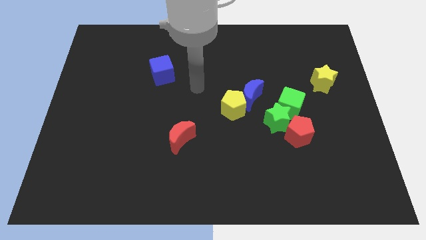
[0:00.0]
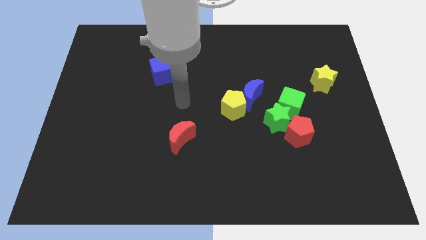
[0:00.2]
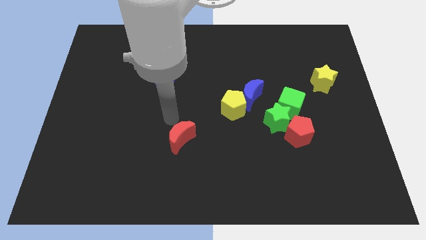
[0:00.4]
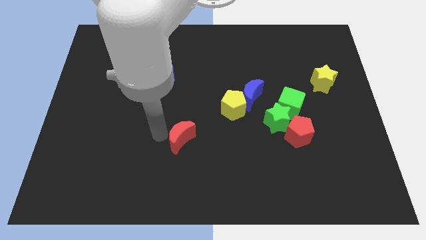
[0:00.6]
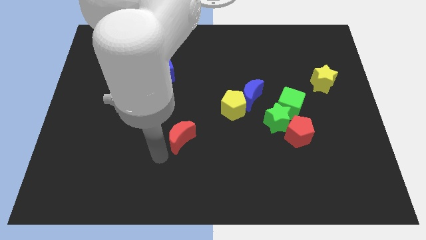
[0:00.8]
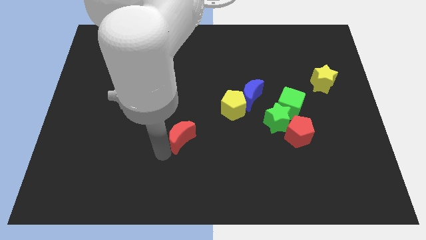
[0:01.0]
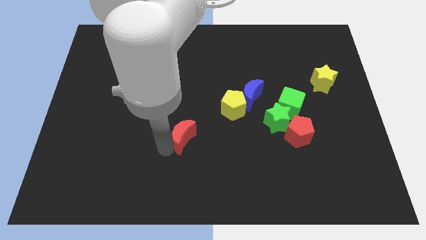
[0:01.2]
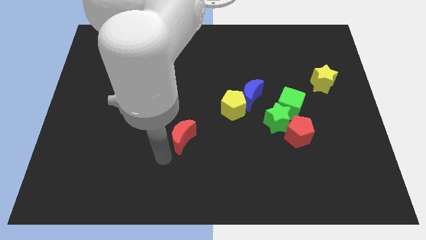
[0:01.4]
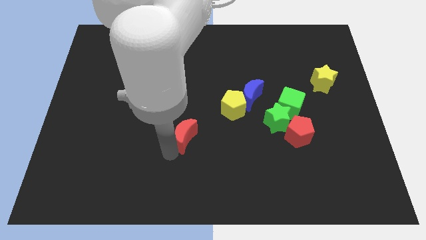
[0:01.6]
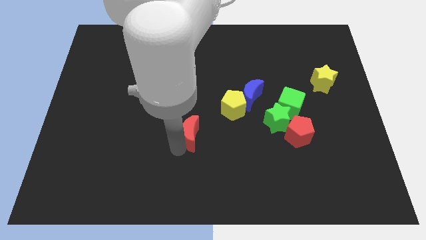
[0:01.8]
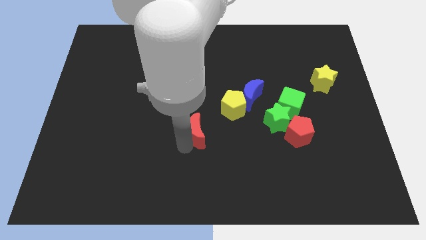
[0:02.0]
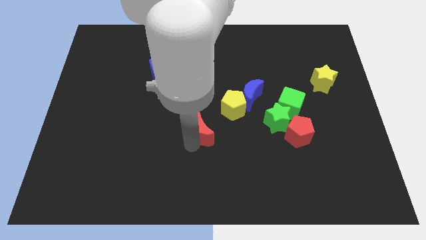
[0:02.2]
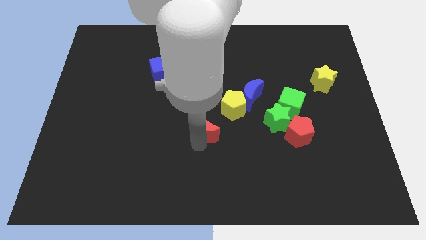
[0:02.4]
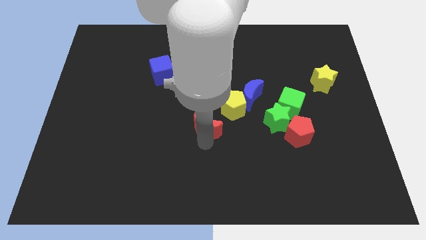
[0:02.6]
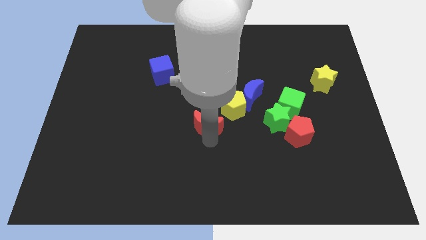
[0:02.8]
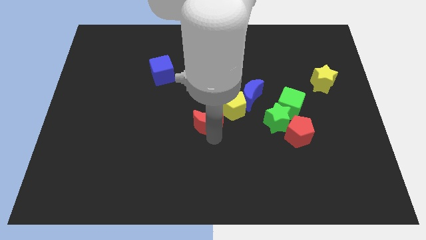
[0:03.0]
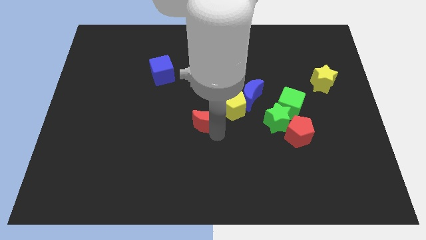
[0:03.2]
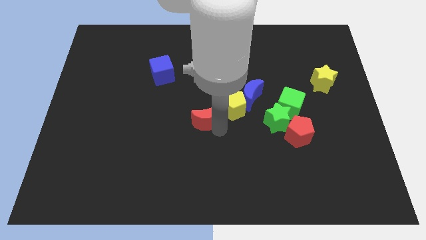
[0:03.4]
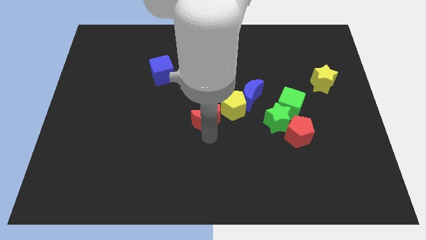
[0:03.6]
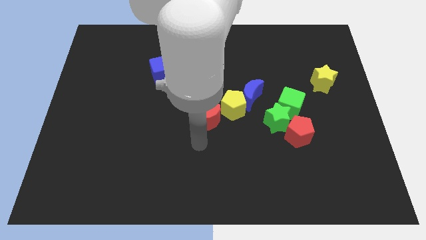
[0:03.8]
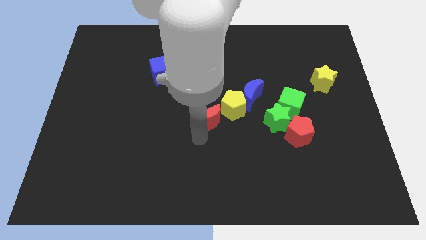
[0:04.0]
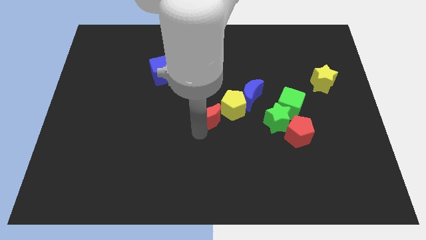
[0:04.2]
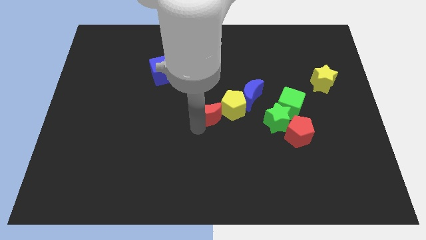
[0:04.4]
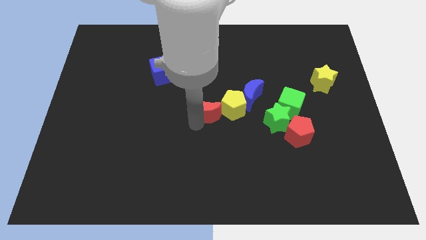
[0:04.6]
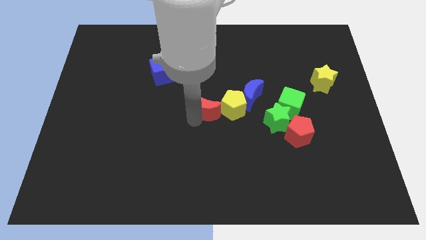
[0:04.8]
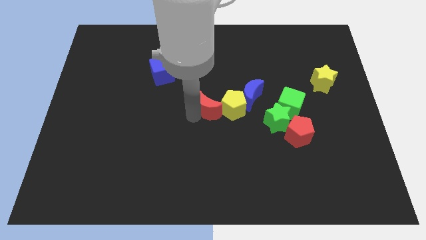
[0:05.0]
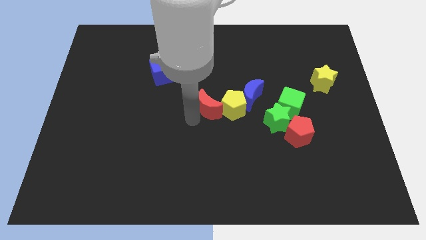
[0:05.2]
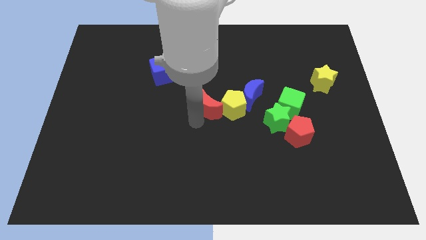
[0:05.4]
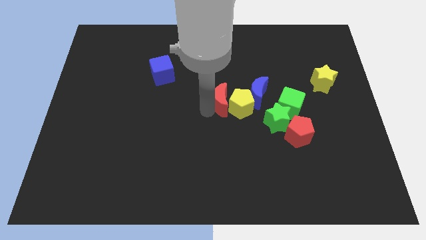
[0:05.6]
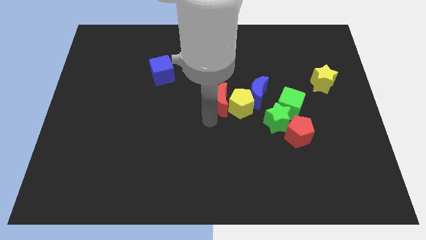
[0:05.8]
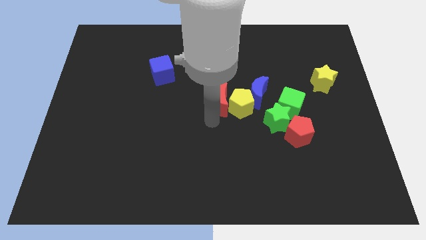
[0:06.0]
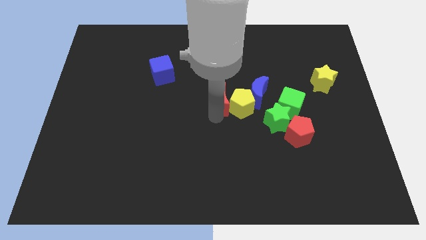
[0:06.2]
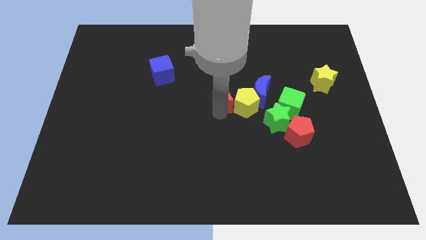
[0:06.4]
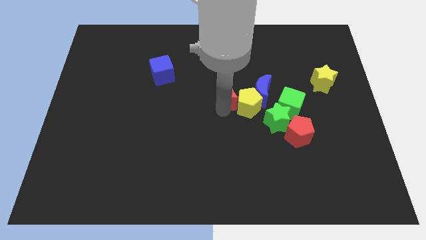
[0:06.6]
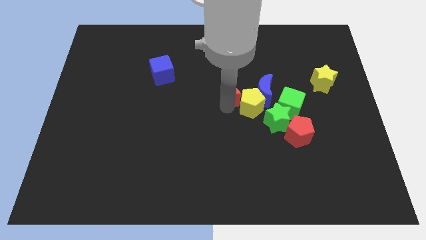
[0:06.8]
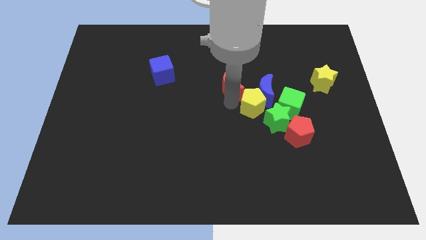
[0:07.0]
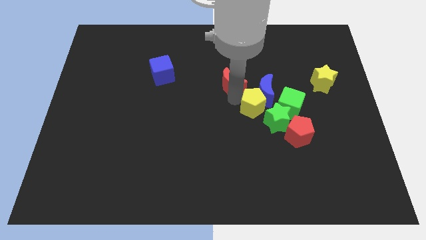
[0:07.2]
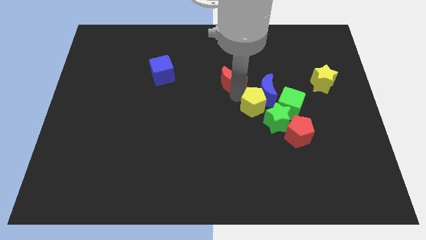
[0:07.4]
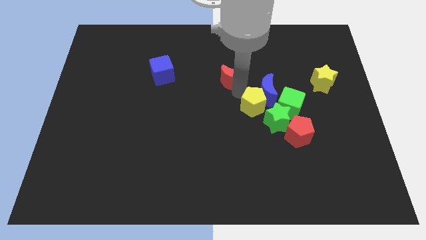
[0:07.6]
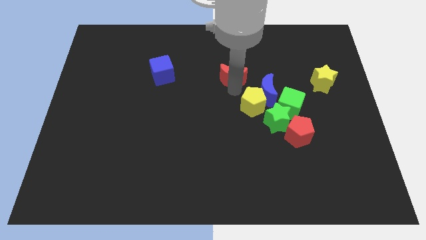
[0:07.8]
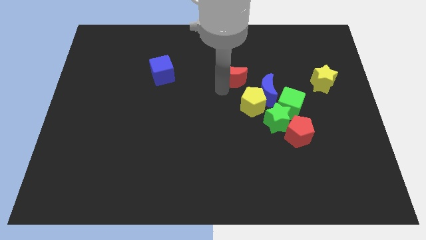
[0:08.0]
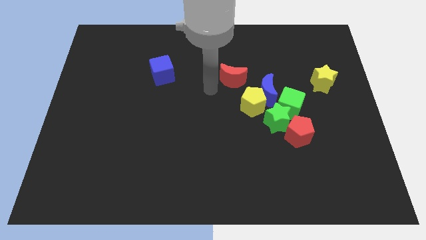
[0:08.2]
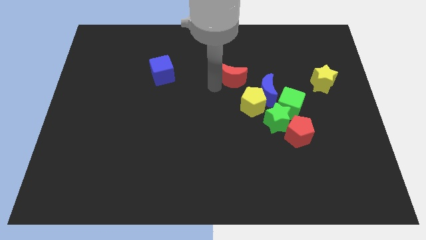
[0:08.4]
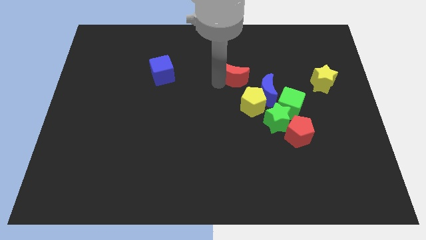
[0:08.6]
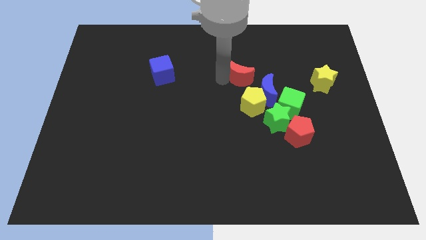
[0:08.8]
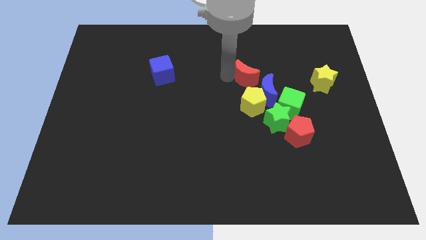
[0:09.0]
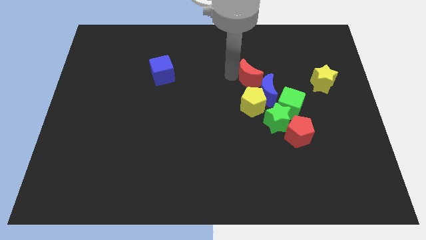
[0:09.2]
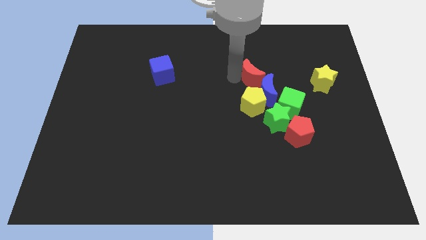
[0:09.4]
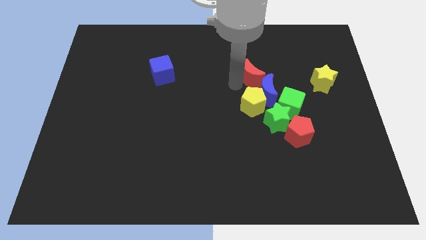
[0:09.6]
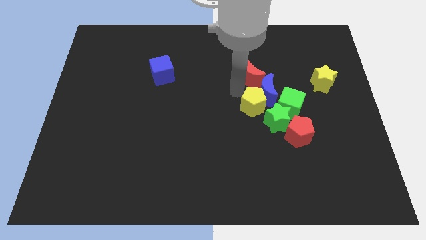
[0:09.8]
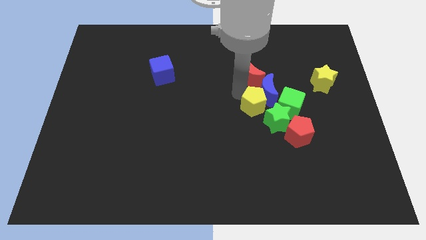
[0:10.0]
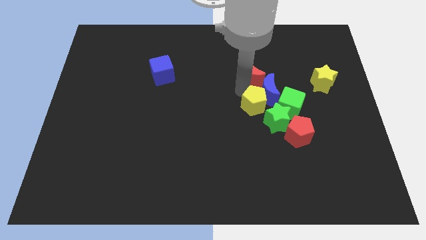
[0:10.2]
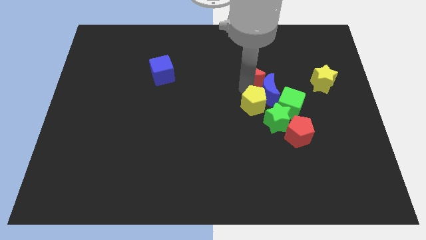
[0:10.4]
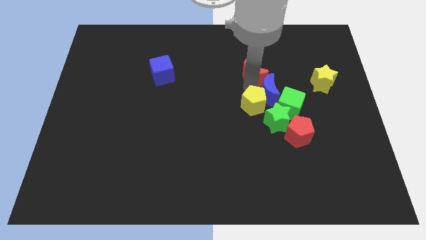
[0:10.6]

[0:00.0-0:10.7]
push the red moon above the green star

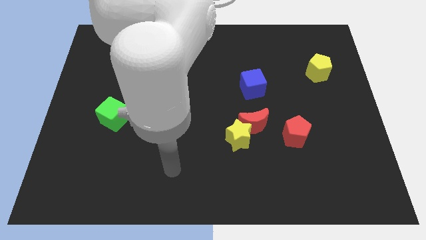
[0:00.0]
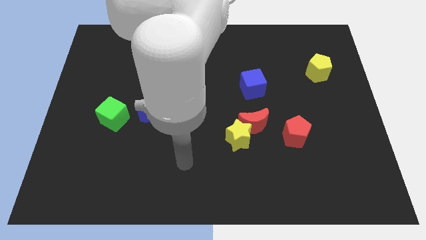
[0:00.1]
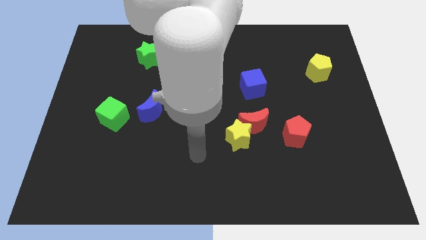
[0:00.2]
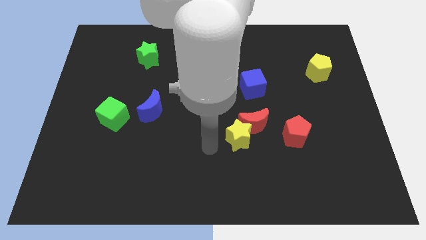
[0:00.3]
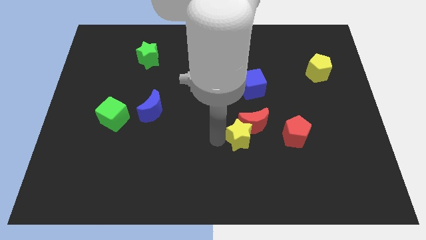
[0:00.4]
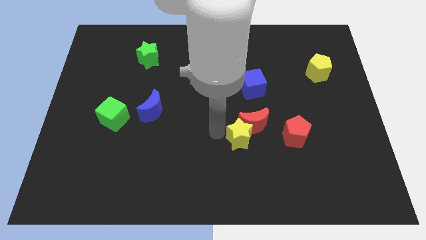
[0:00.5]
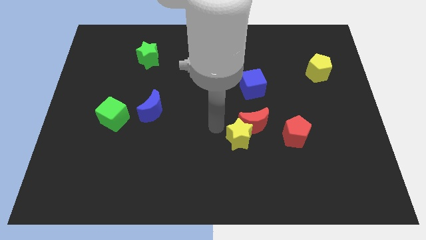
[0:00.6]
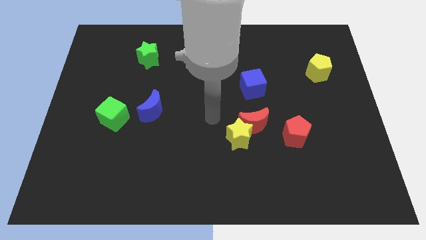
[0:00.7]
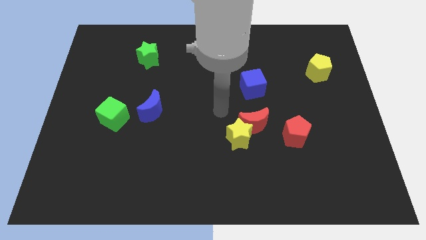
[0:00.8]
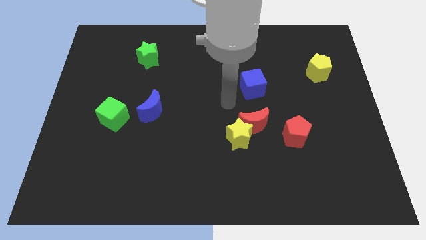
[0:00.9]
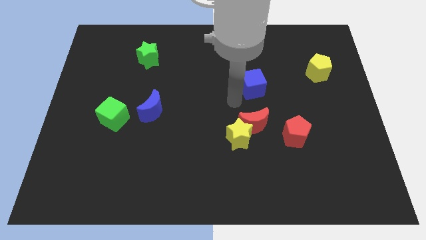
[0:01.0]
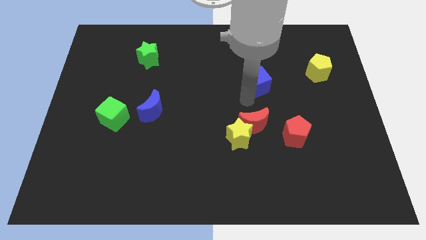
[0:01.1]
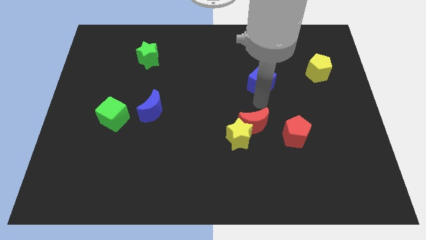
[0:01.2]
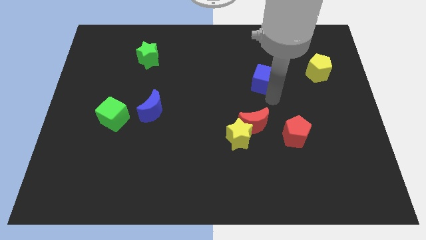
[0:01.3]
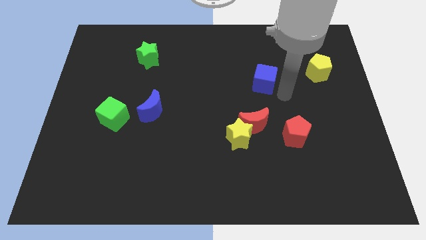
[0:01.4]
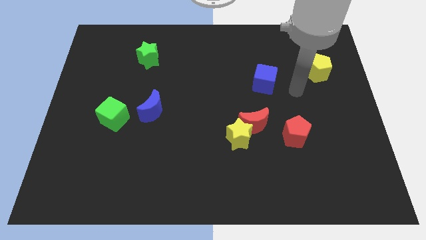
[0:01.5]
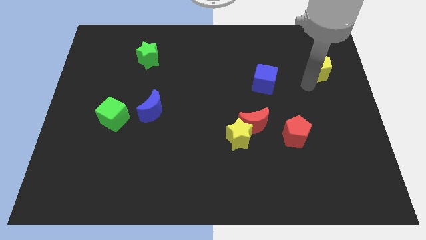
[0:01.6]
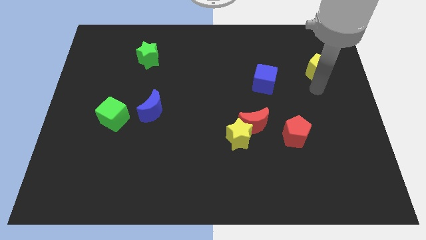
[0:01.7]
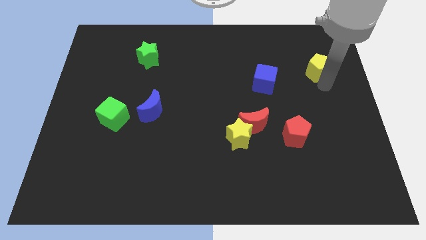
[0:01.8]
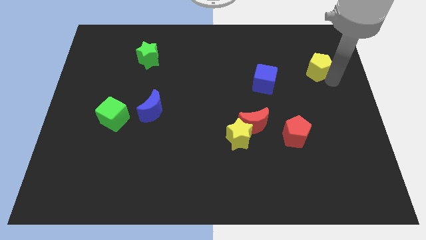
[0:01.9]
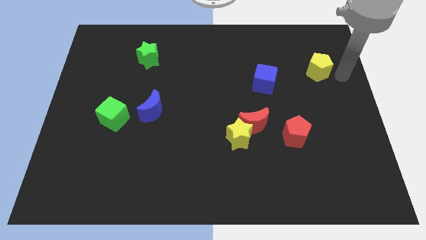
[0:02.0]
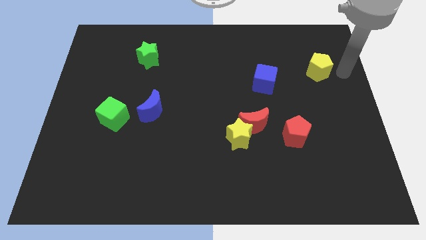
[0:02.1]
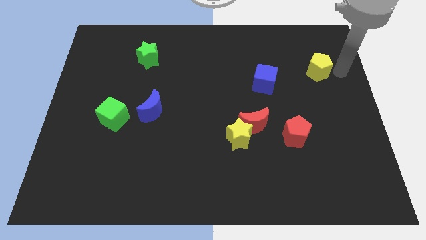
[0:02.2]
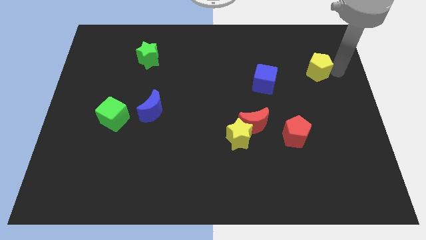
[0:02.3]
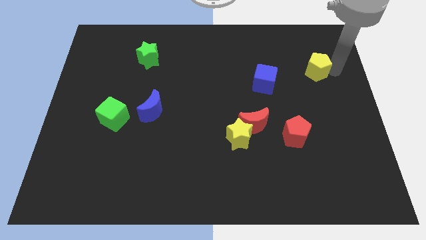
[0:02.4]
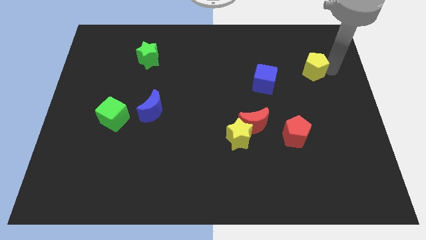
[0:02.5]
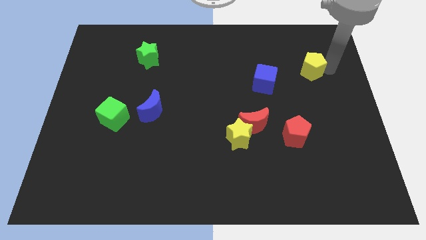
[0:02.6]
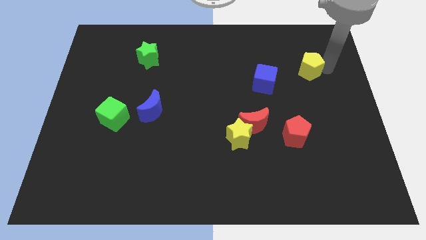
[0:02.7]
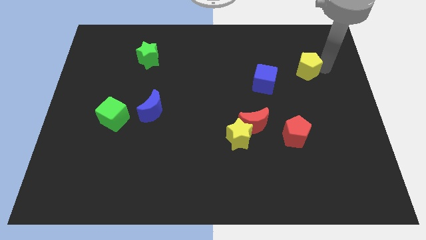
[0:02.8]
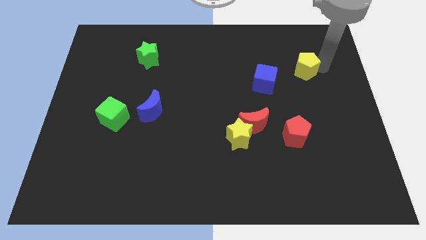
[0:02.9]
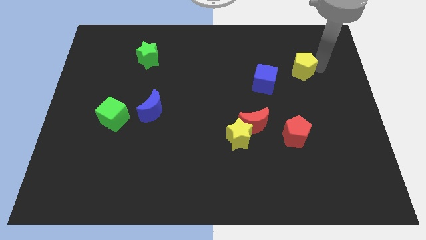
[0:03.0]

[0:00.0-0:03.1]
put the yellow pentagon diagonally up and to the right of the blue cube
